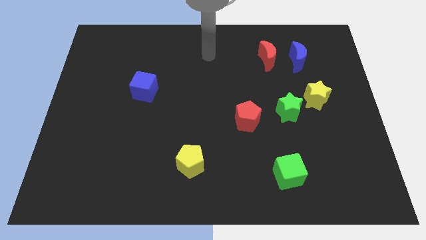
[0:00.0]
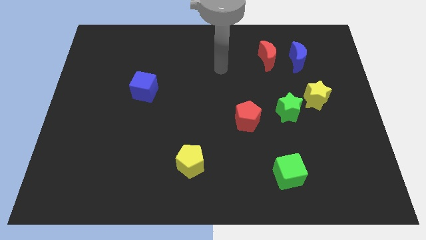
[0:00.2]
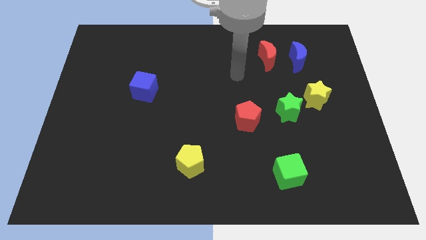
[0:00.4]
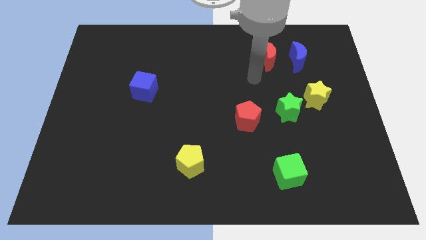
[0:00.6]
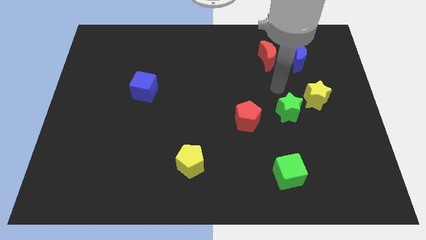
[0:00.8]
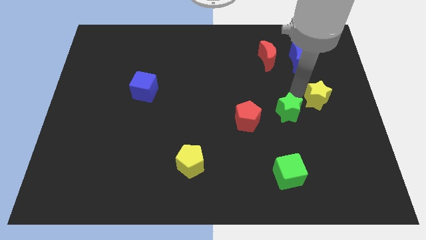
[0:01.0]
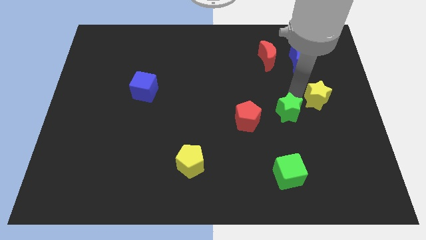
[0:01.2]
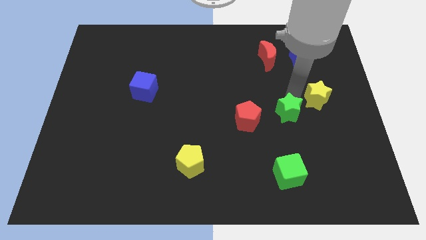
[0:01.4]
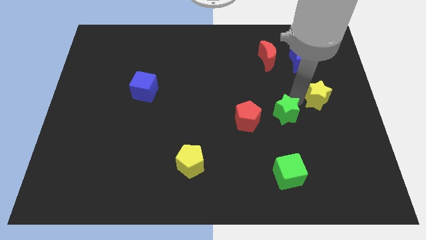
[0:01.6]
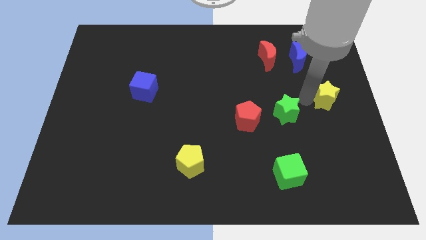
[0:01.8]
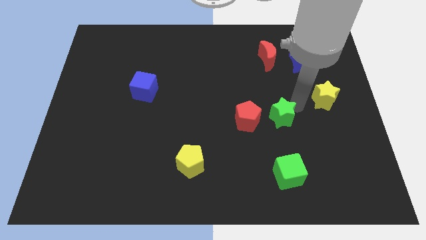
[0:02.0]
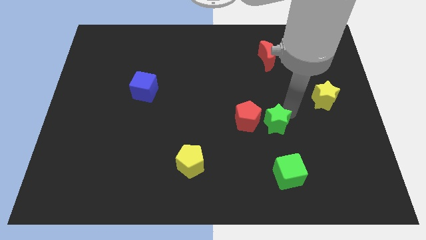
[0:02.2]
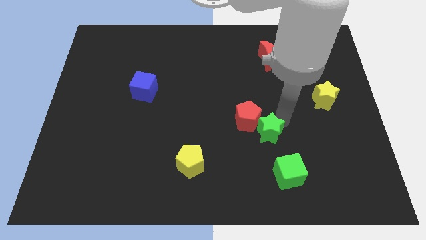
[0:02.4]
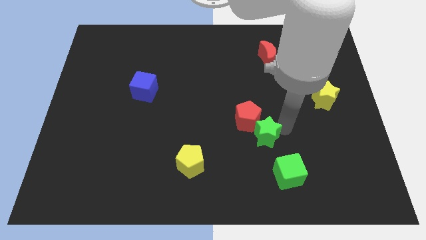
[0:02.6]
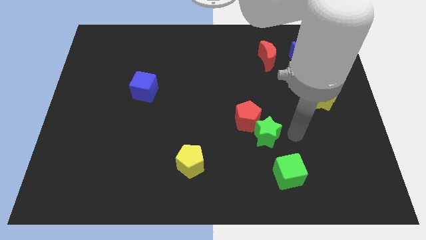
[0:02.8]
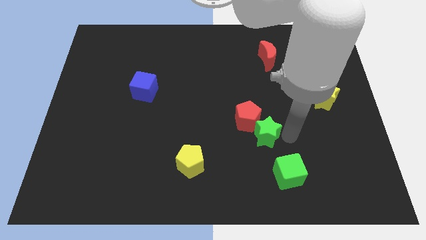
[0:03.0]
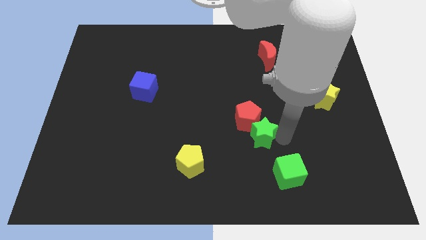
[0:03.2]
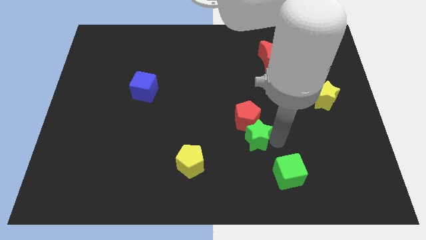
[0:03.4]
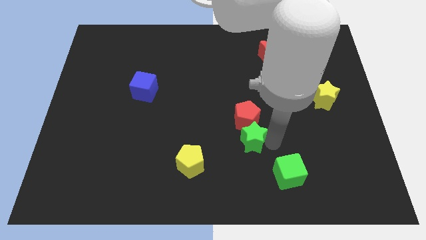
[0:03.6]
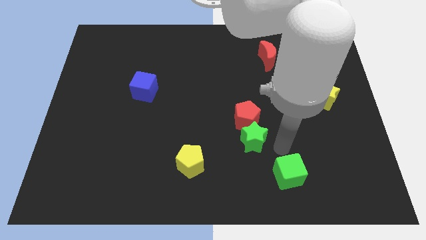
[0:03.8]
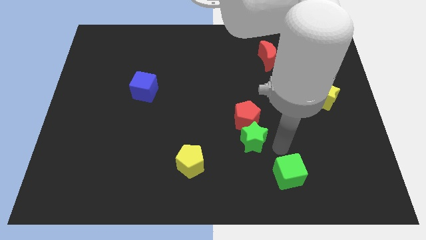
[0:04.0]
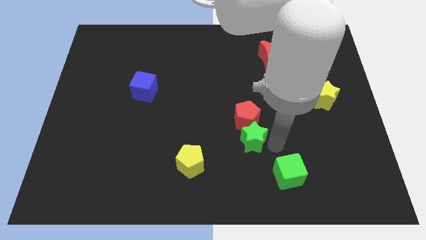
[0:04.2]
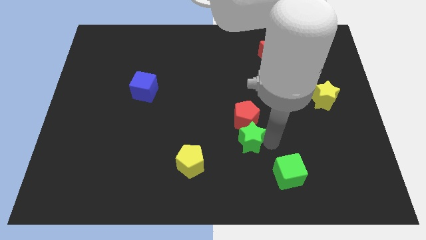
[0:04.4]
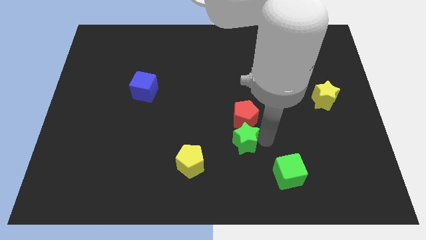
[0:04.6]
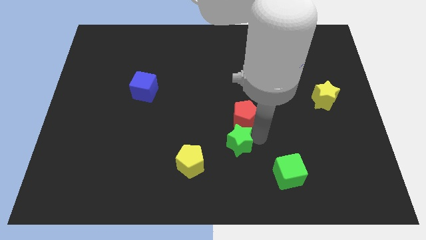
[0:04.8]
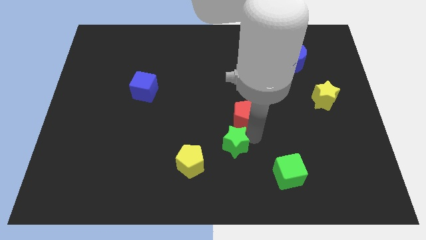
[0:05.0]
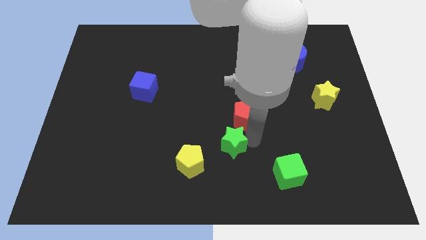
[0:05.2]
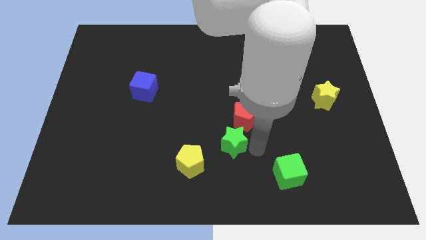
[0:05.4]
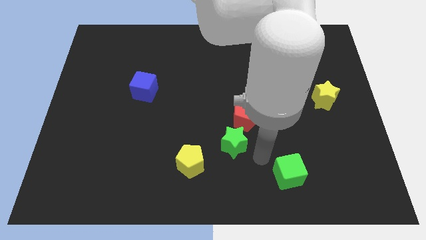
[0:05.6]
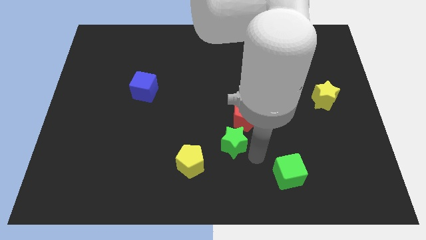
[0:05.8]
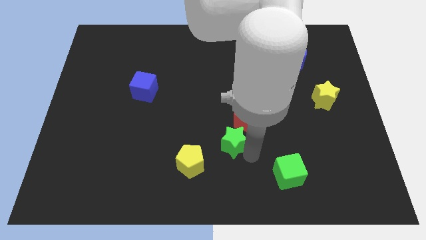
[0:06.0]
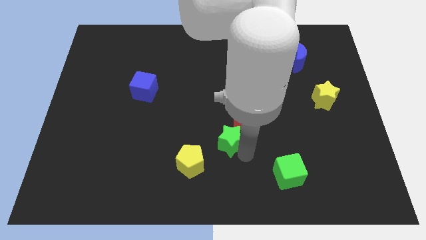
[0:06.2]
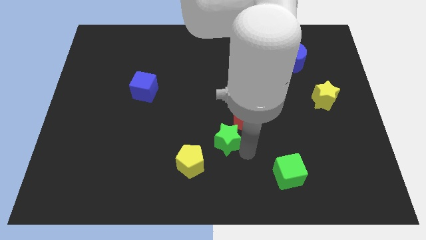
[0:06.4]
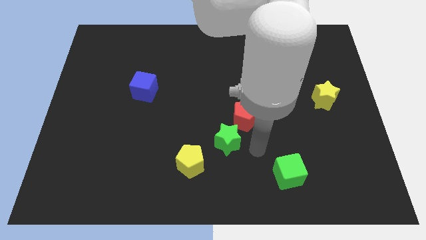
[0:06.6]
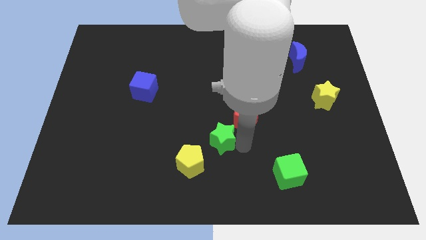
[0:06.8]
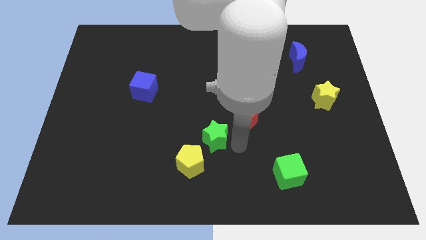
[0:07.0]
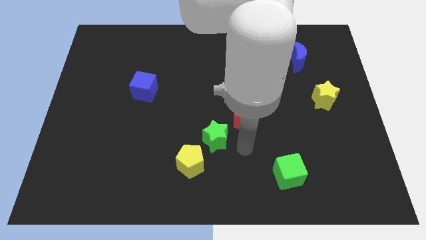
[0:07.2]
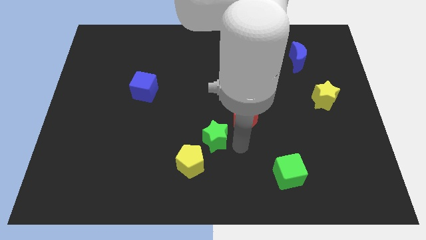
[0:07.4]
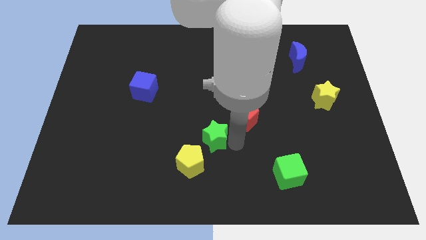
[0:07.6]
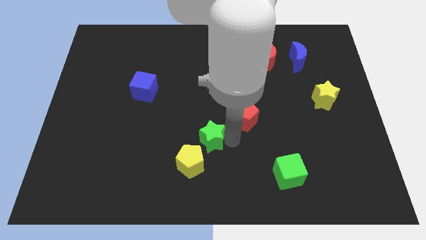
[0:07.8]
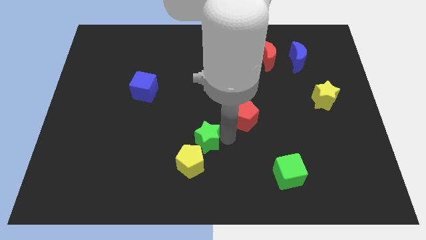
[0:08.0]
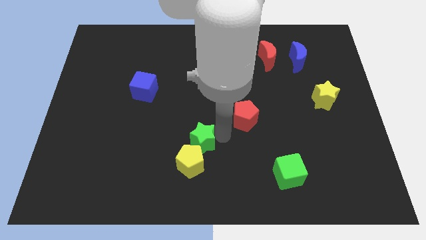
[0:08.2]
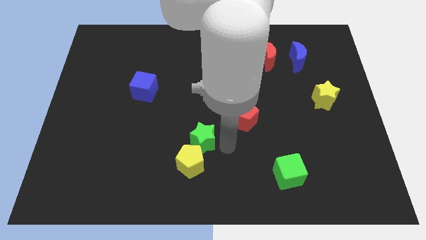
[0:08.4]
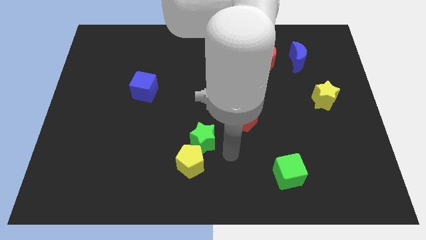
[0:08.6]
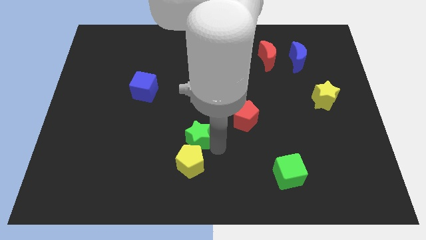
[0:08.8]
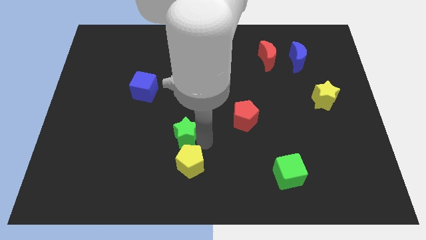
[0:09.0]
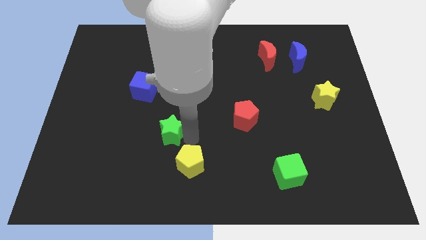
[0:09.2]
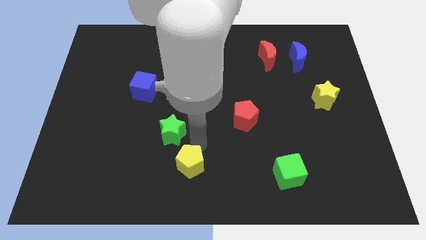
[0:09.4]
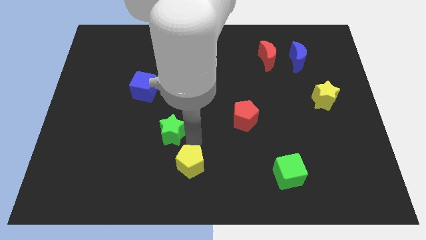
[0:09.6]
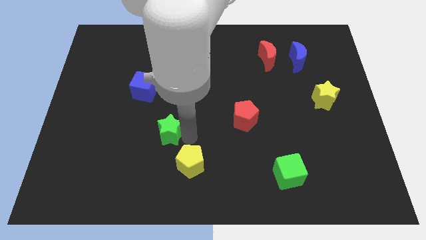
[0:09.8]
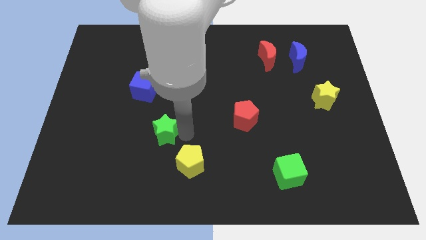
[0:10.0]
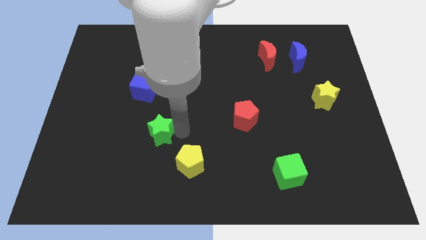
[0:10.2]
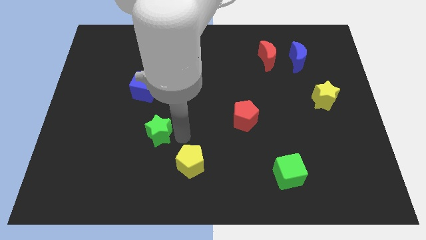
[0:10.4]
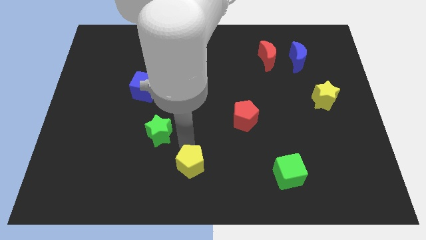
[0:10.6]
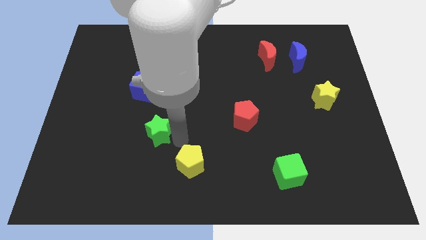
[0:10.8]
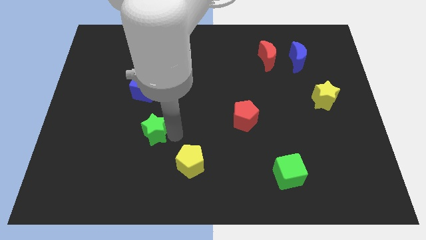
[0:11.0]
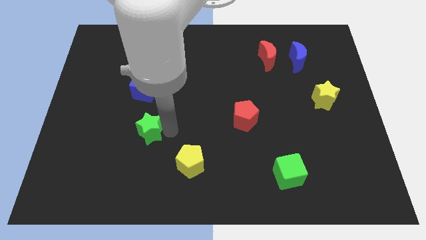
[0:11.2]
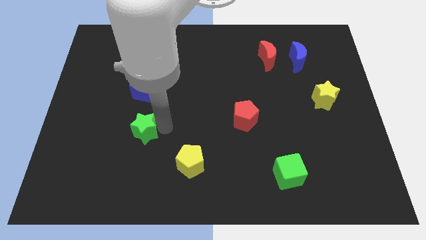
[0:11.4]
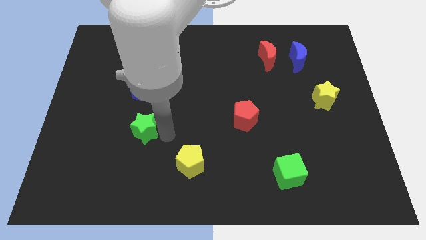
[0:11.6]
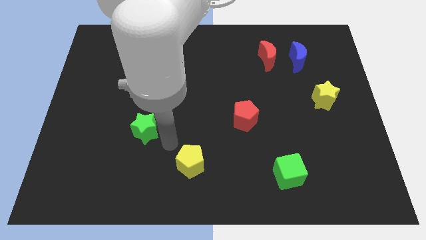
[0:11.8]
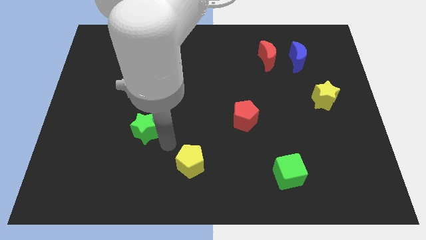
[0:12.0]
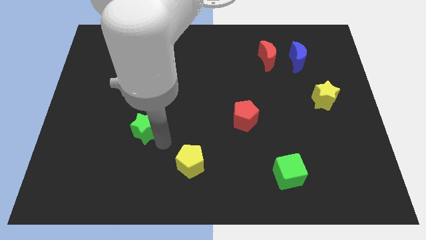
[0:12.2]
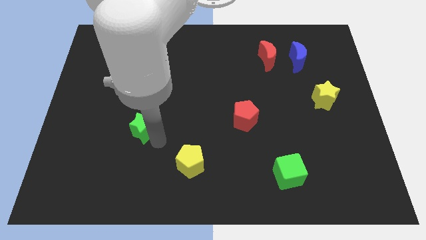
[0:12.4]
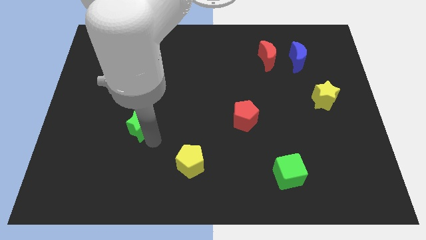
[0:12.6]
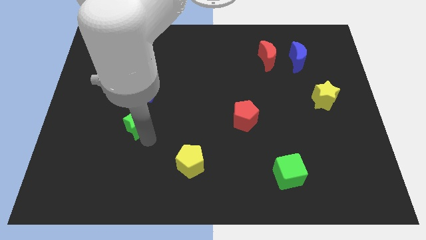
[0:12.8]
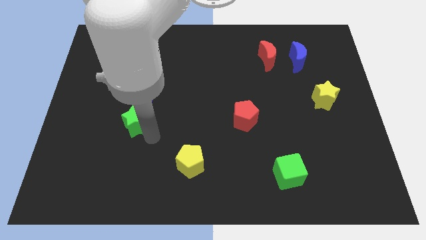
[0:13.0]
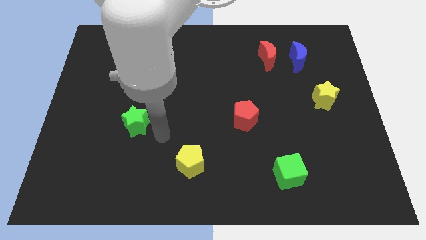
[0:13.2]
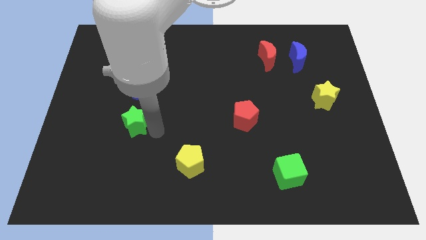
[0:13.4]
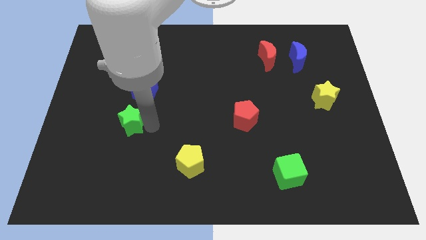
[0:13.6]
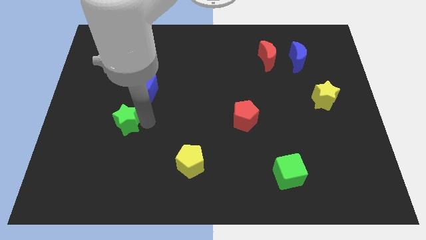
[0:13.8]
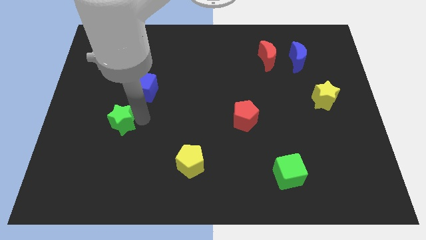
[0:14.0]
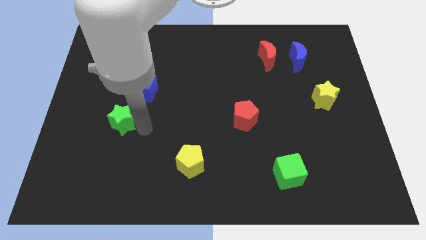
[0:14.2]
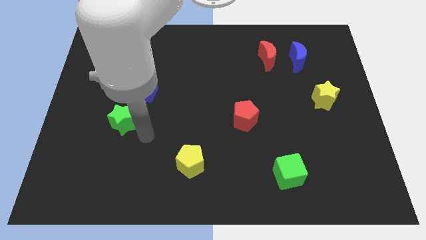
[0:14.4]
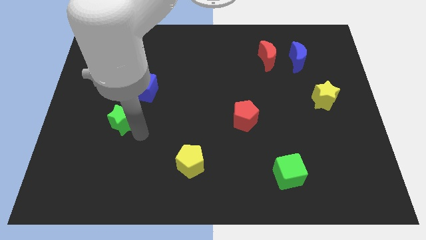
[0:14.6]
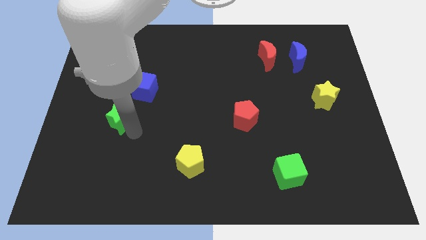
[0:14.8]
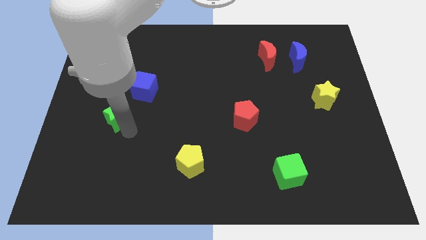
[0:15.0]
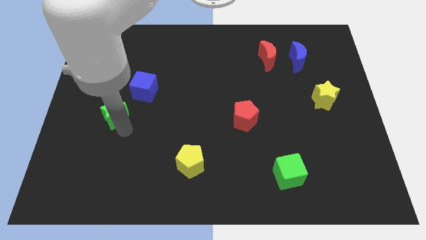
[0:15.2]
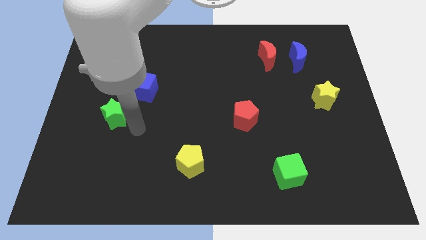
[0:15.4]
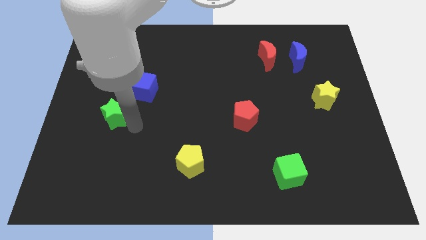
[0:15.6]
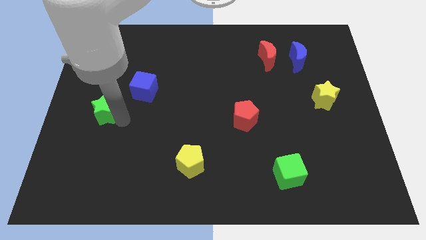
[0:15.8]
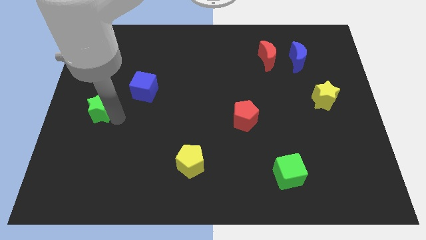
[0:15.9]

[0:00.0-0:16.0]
put the green star to the left side
